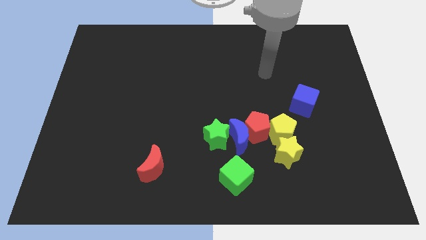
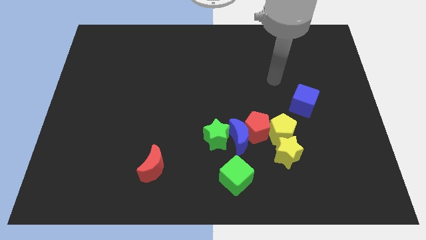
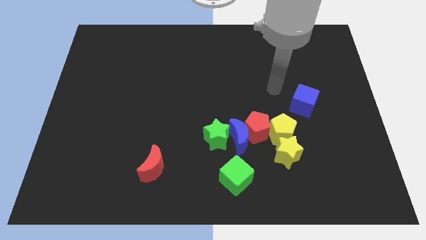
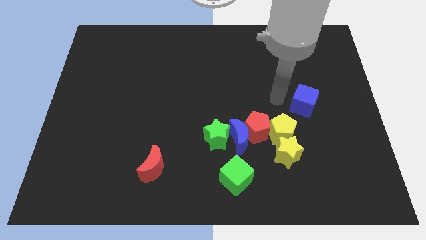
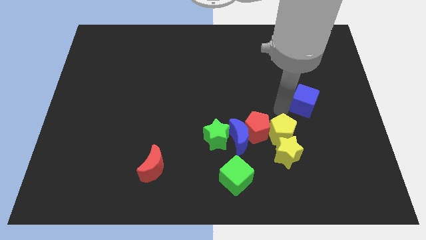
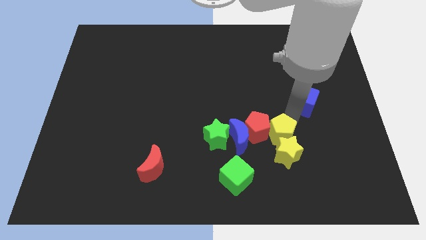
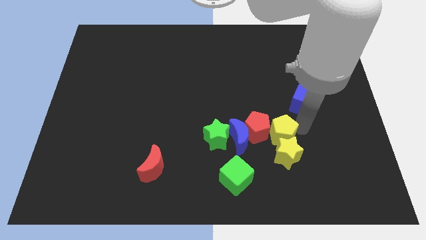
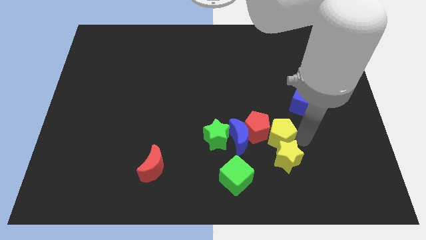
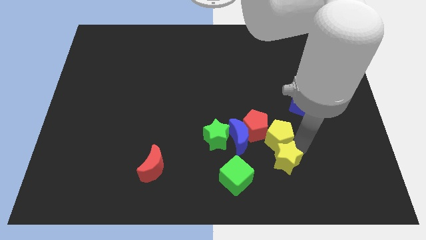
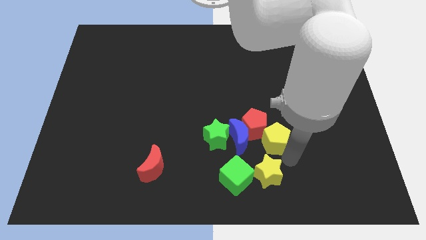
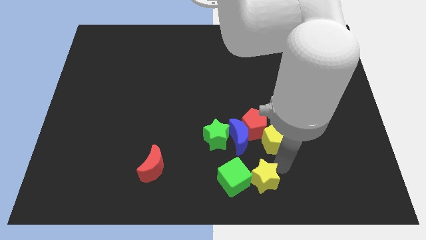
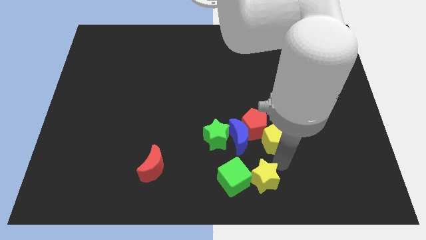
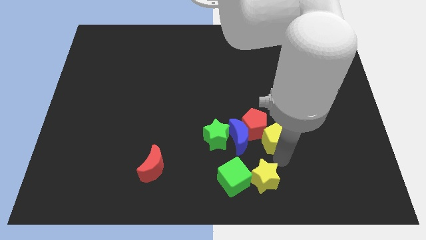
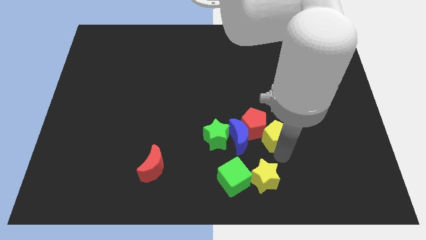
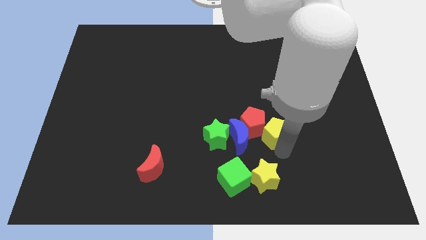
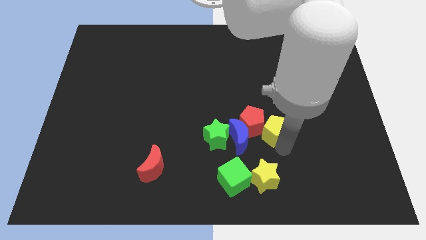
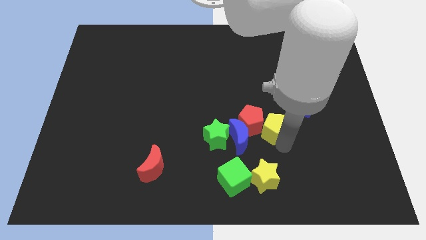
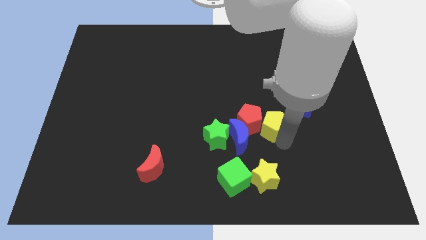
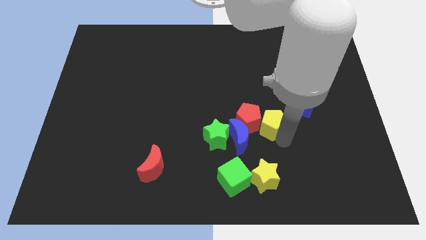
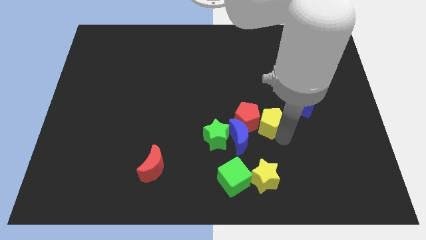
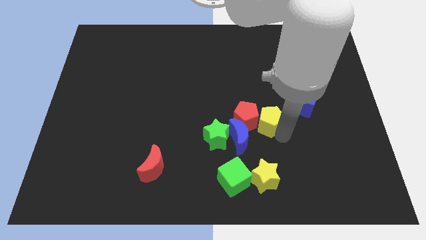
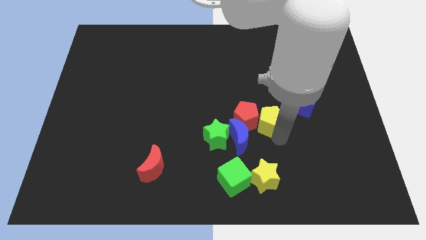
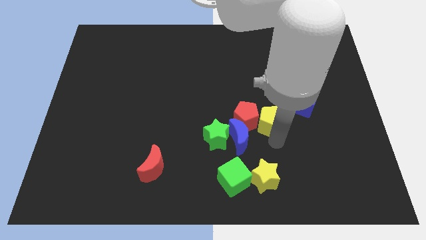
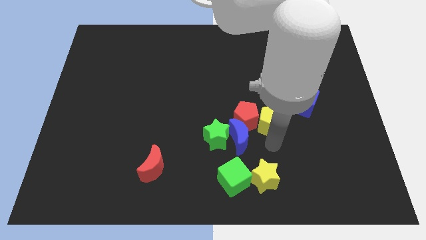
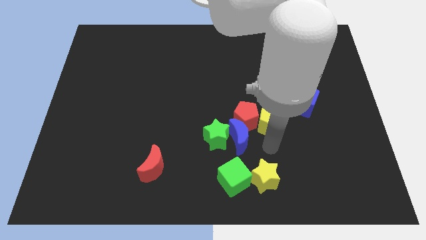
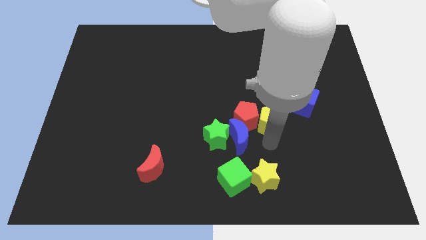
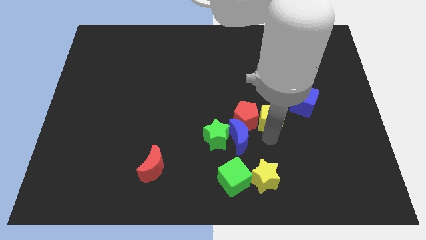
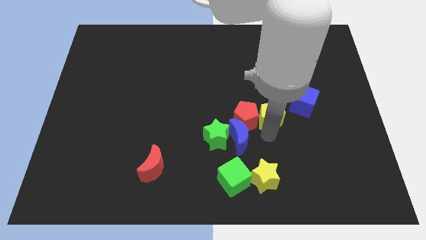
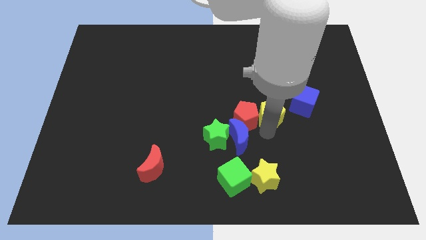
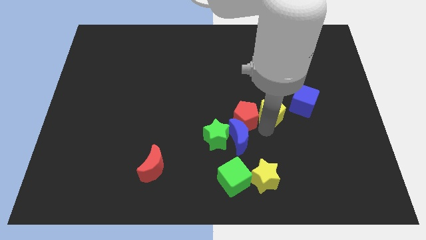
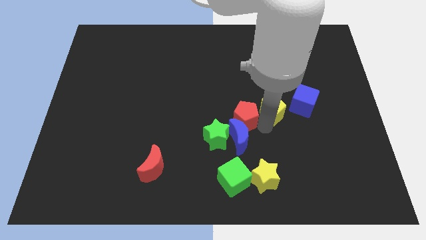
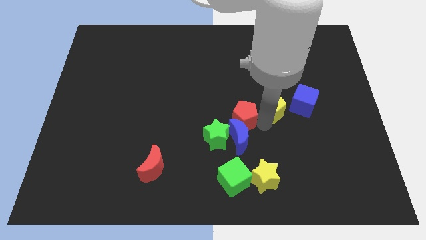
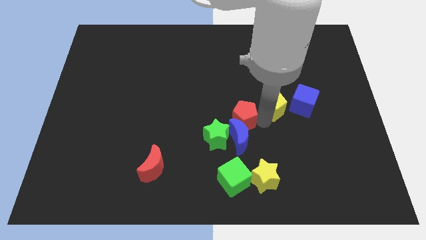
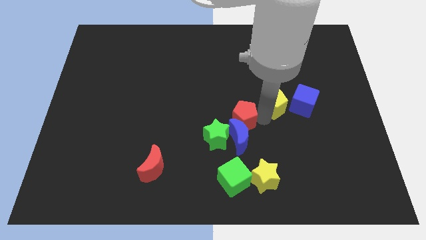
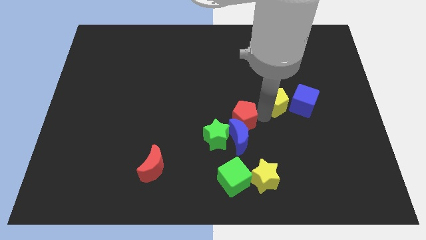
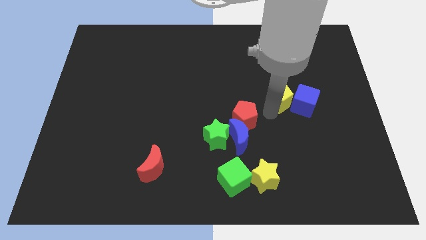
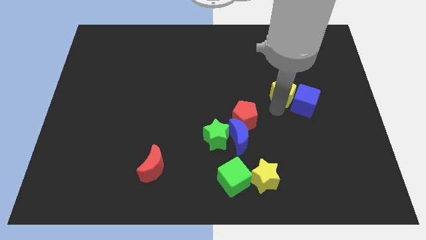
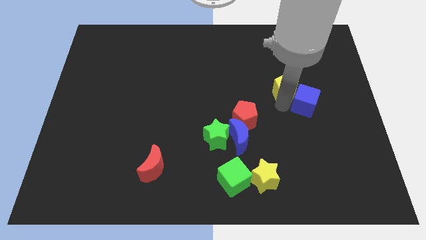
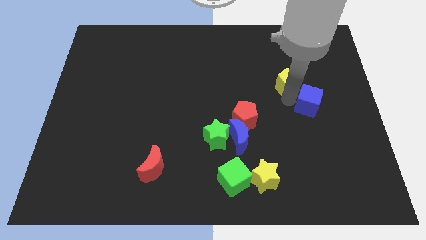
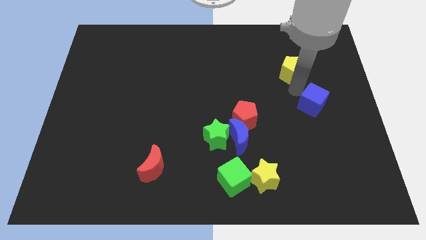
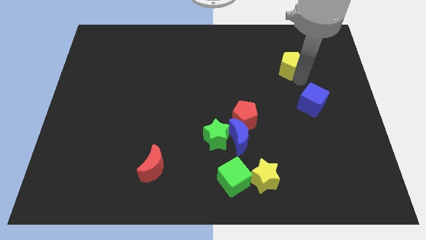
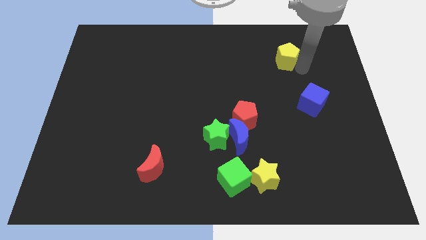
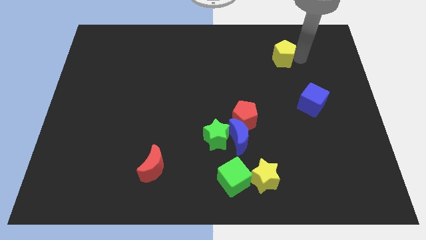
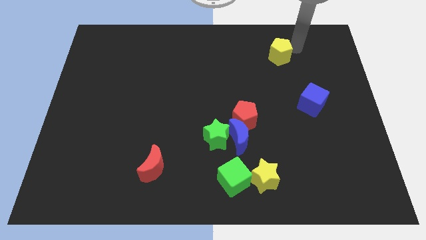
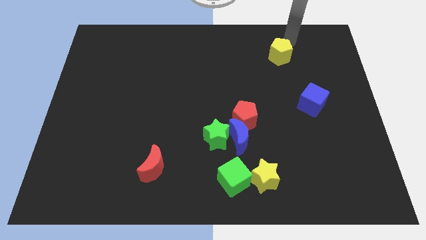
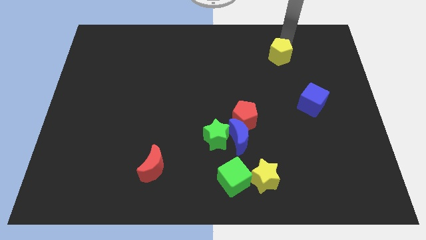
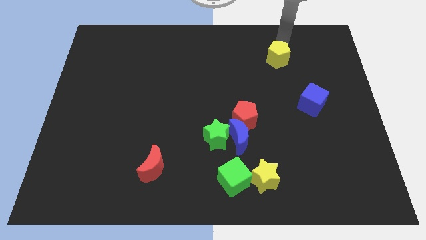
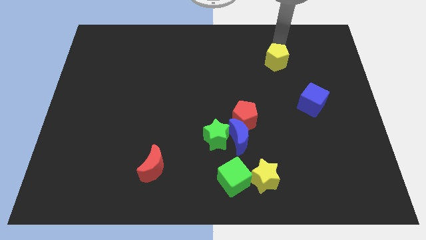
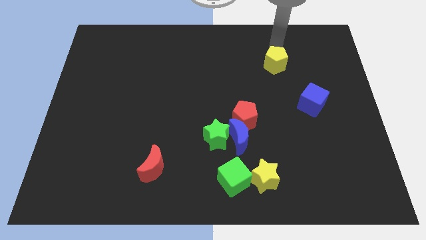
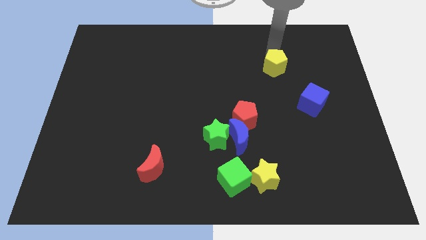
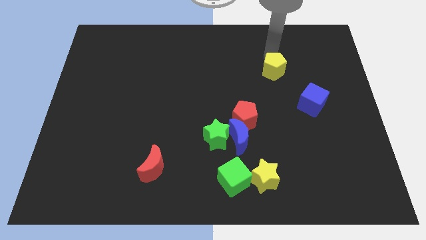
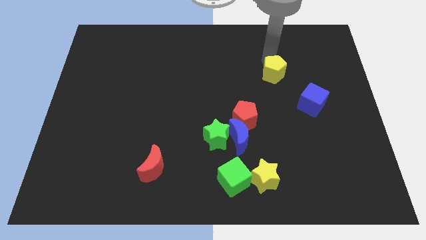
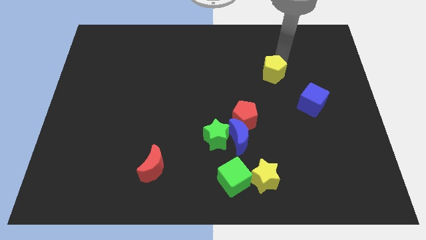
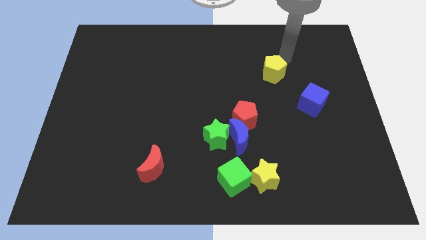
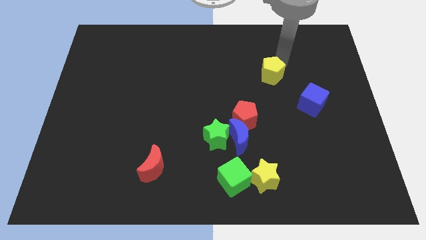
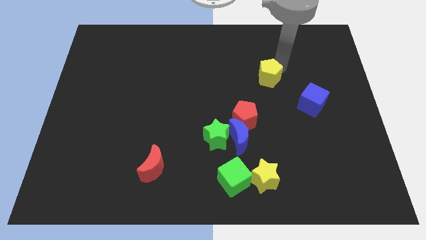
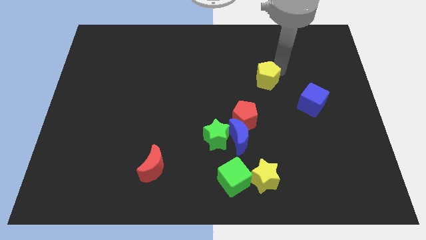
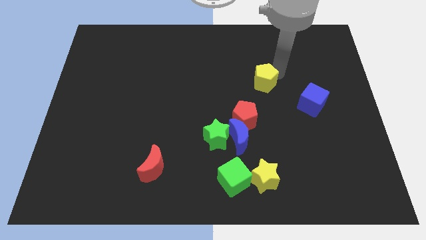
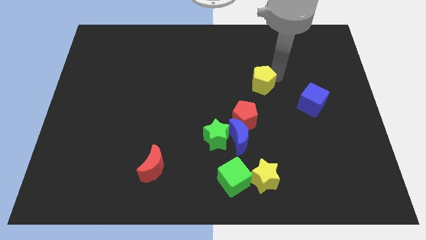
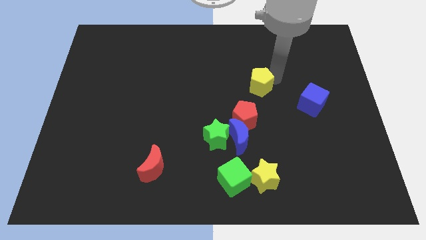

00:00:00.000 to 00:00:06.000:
move the yellow pentagon to the middle of the board

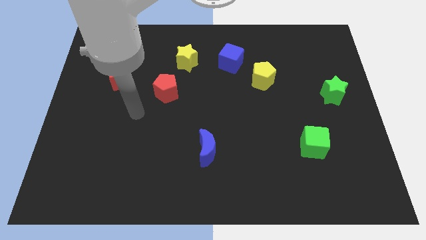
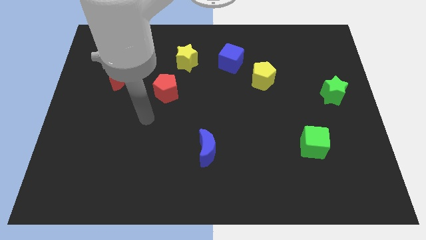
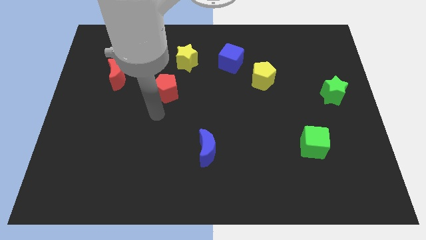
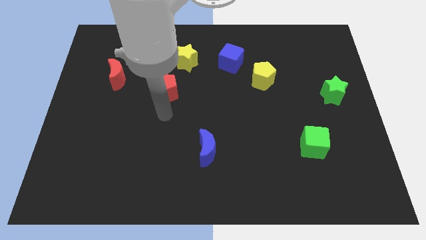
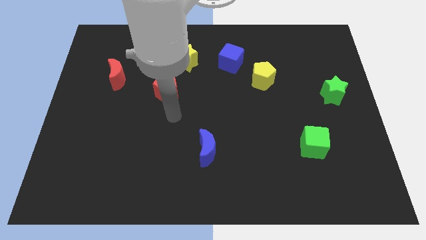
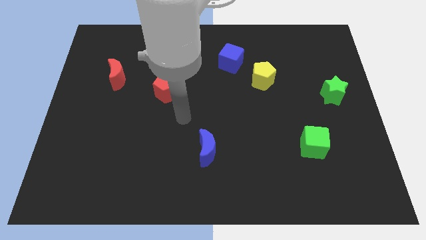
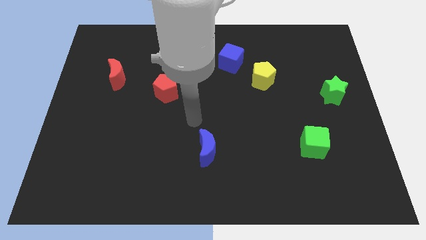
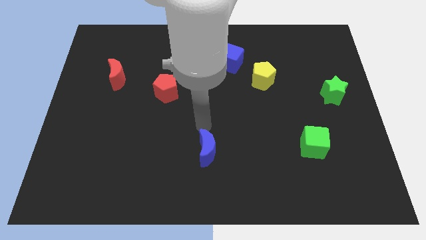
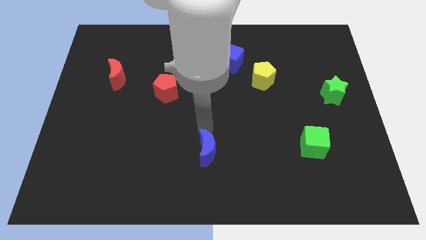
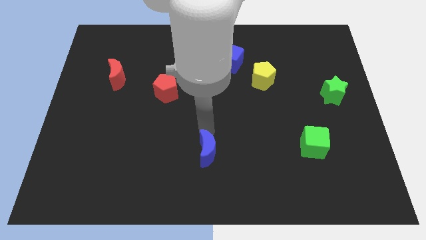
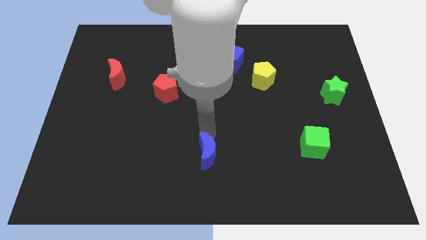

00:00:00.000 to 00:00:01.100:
push the blue moon to the bottom
